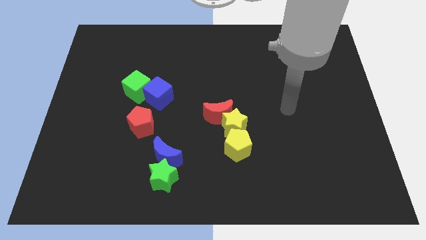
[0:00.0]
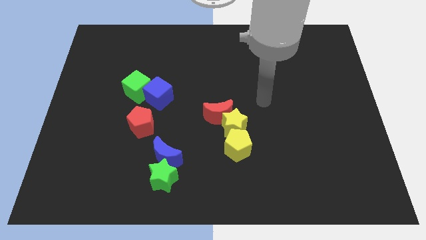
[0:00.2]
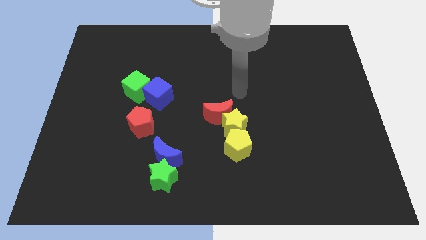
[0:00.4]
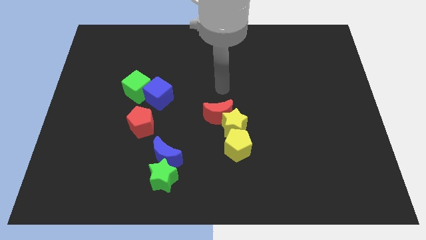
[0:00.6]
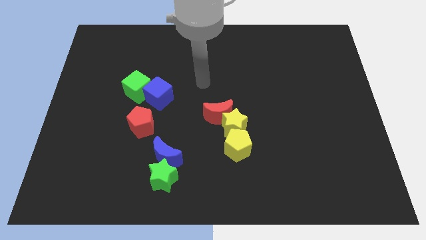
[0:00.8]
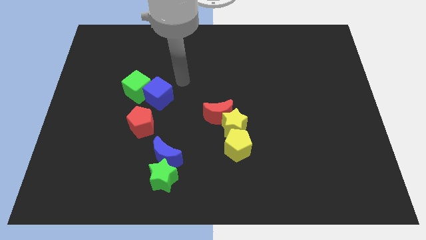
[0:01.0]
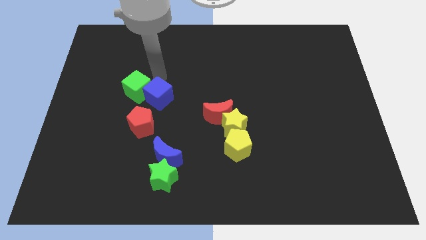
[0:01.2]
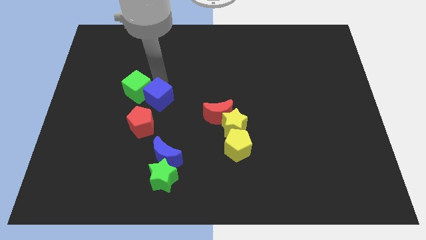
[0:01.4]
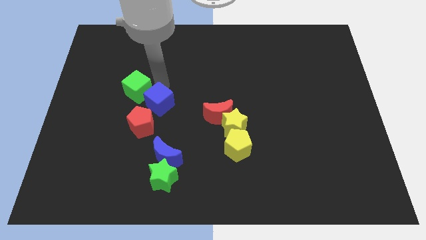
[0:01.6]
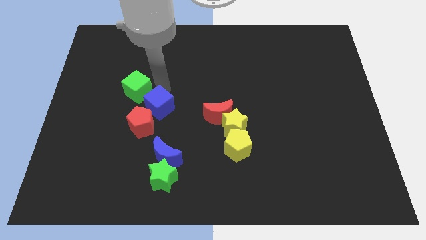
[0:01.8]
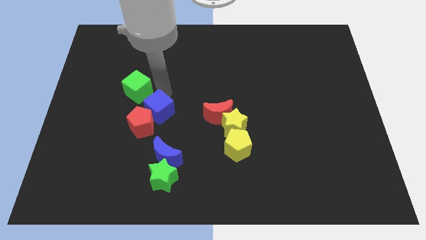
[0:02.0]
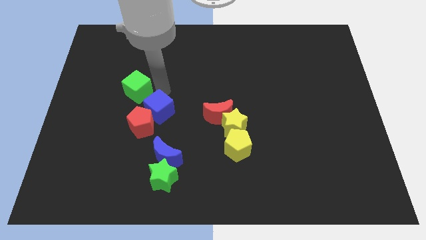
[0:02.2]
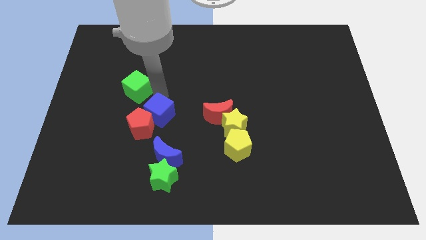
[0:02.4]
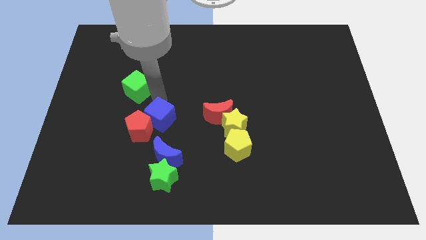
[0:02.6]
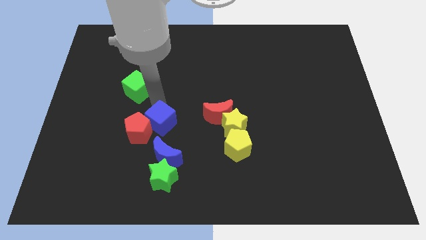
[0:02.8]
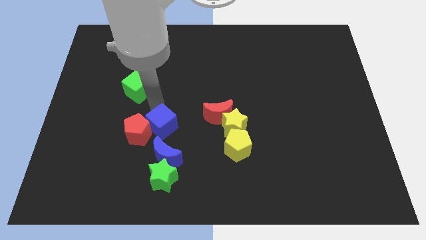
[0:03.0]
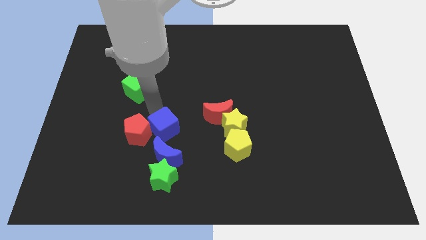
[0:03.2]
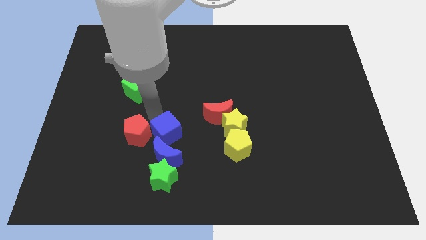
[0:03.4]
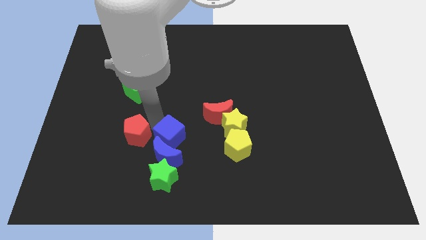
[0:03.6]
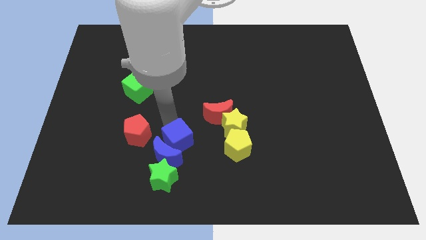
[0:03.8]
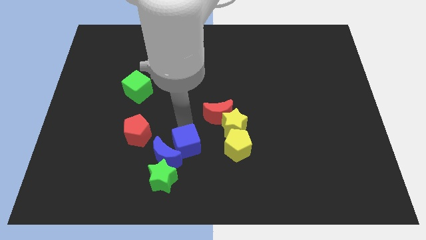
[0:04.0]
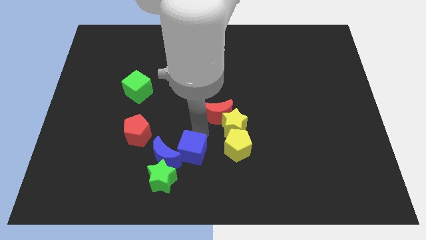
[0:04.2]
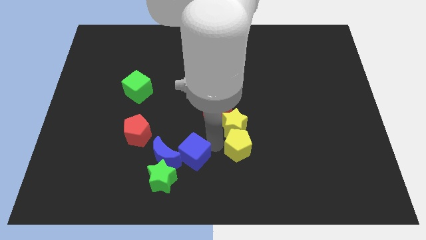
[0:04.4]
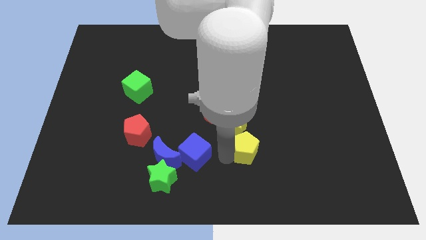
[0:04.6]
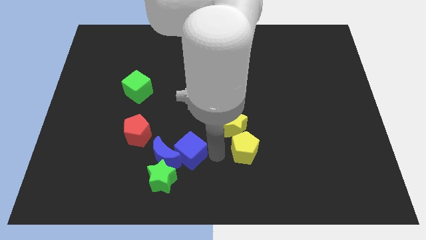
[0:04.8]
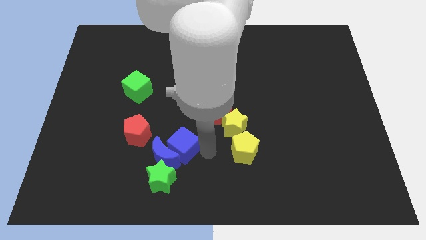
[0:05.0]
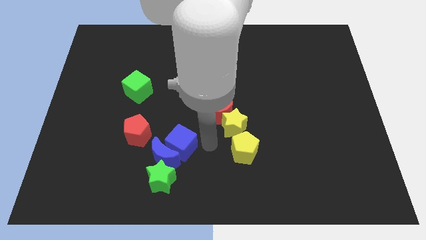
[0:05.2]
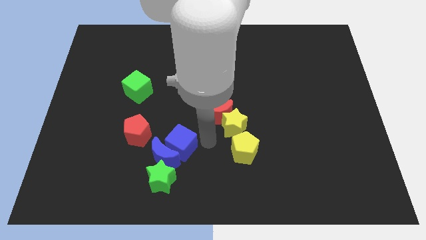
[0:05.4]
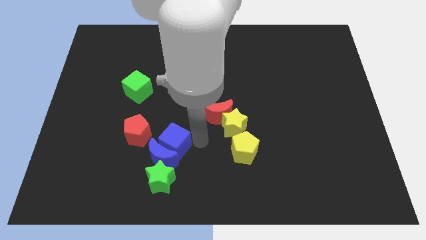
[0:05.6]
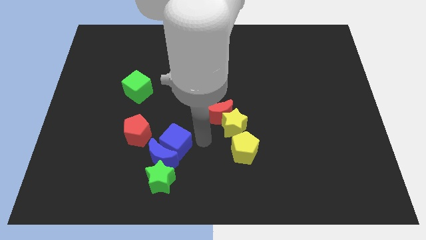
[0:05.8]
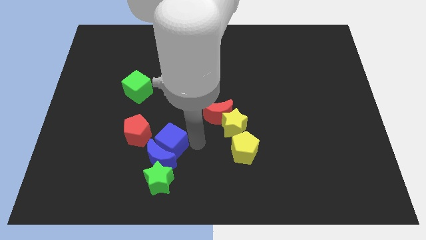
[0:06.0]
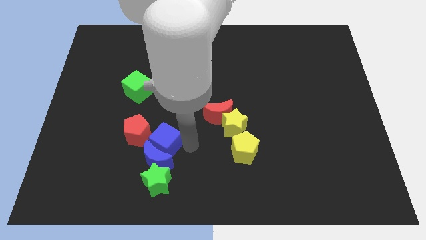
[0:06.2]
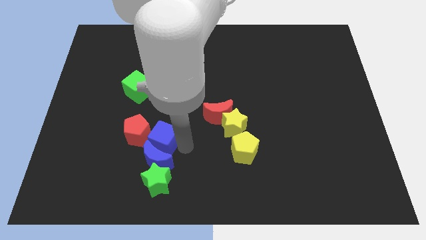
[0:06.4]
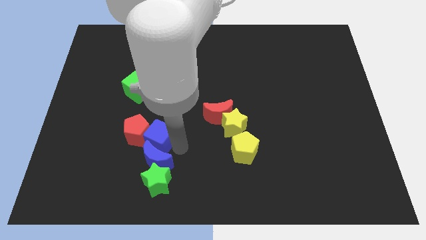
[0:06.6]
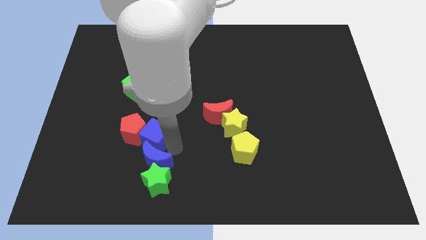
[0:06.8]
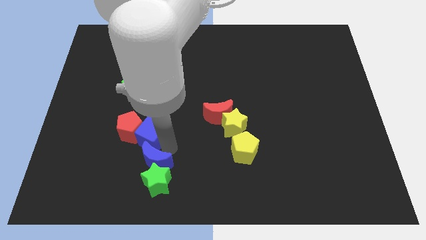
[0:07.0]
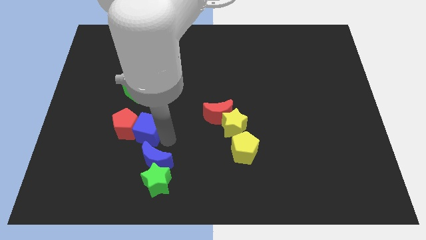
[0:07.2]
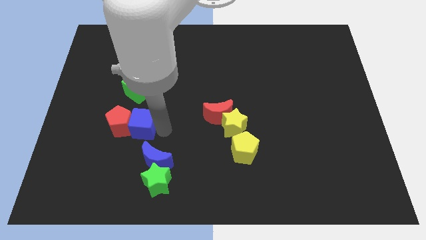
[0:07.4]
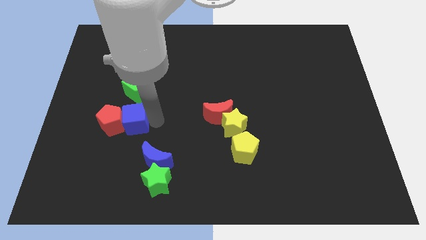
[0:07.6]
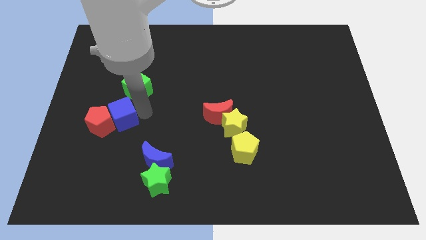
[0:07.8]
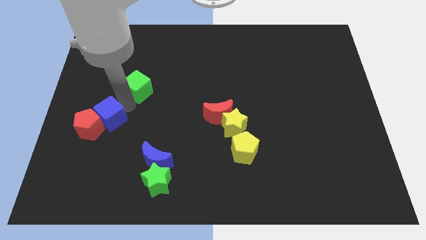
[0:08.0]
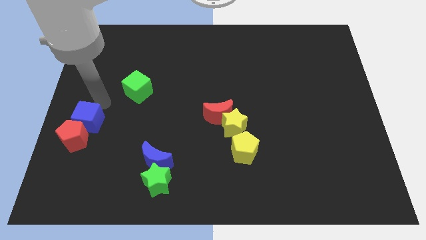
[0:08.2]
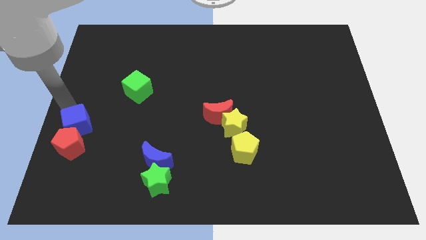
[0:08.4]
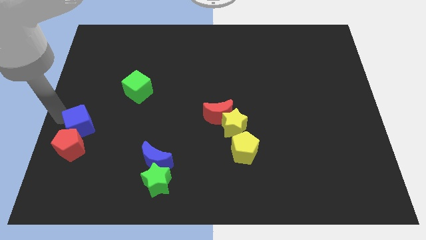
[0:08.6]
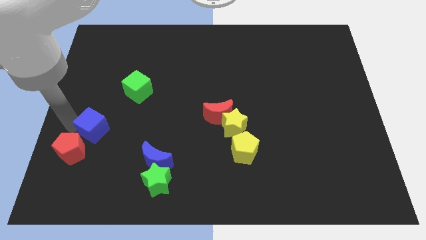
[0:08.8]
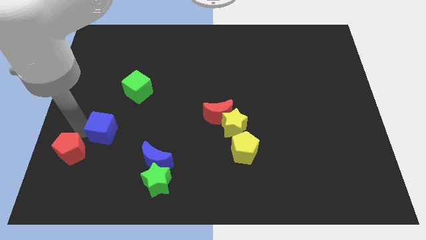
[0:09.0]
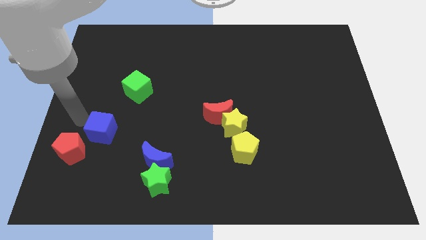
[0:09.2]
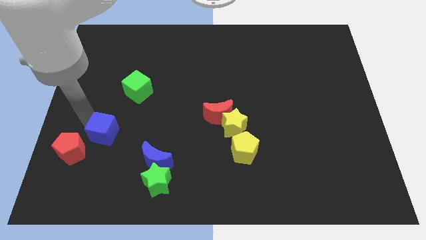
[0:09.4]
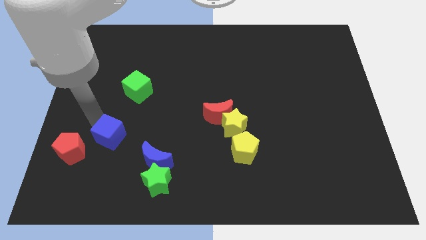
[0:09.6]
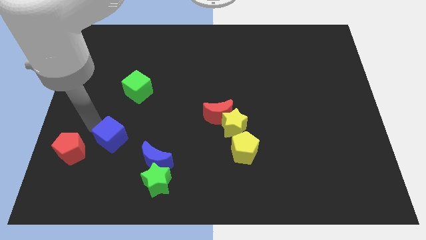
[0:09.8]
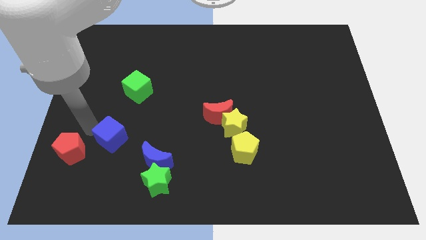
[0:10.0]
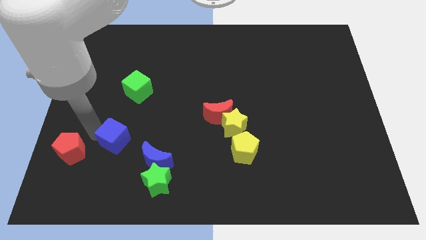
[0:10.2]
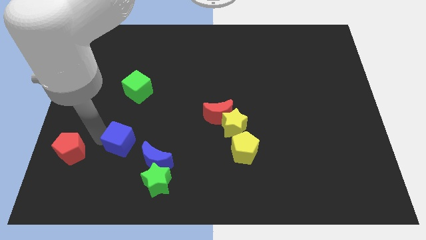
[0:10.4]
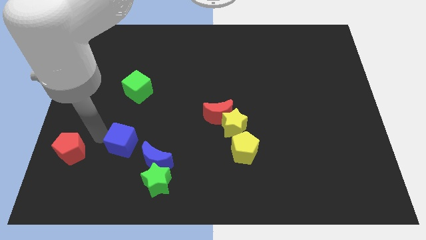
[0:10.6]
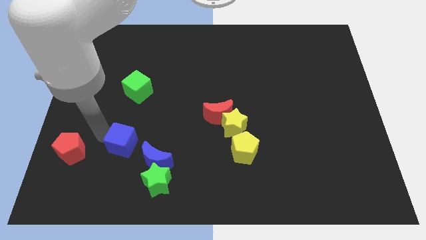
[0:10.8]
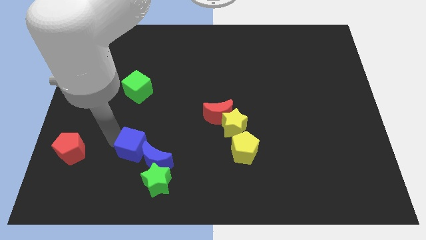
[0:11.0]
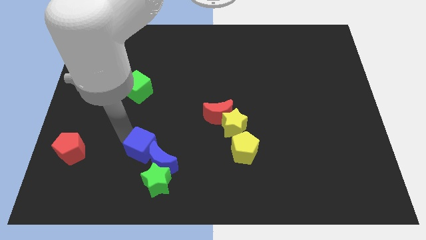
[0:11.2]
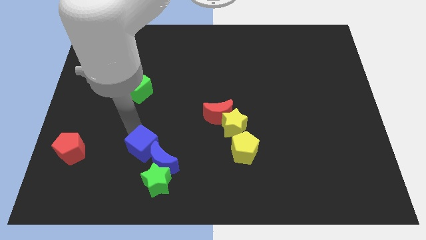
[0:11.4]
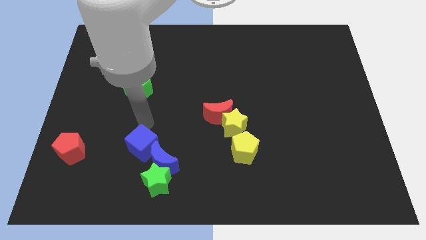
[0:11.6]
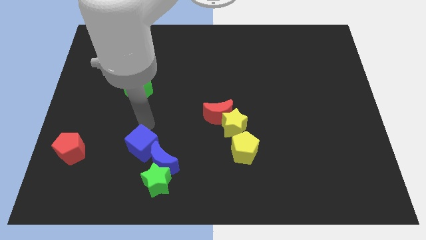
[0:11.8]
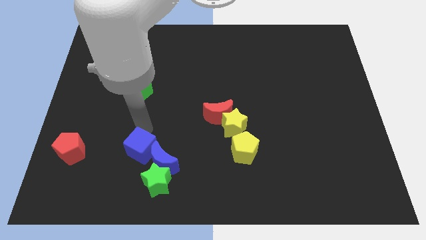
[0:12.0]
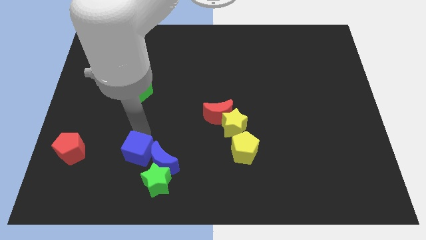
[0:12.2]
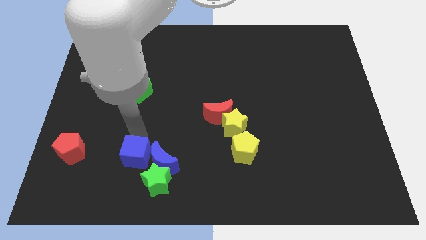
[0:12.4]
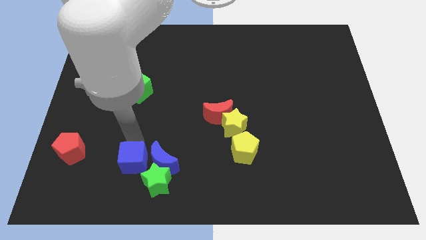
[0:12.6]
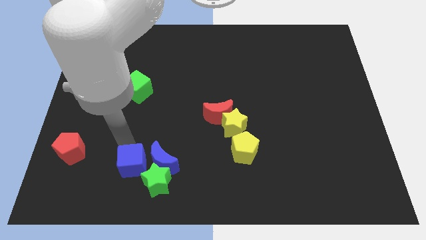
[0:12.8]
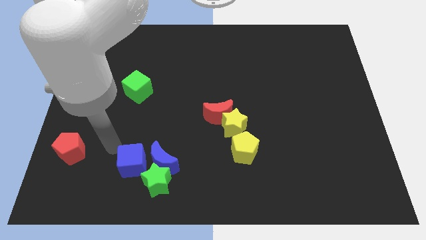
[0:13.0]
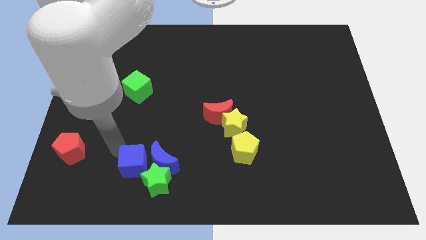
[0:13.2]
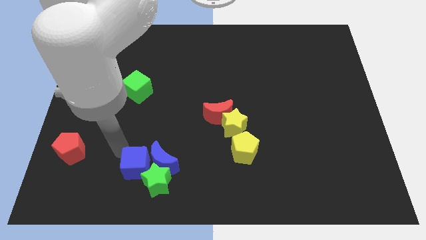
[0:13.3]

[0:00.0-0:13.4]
slide the blue cube close to the green star

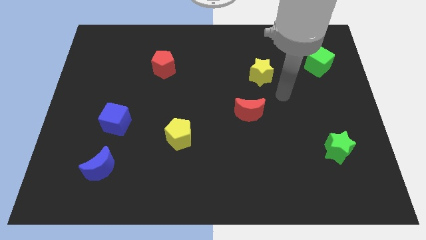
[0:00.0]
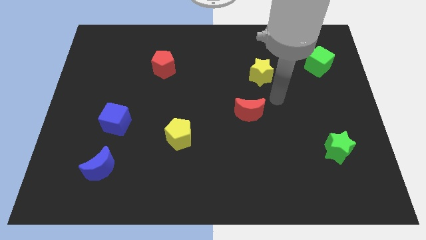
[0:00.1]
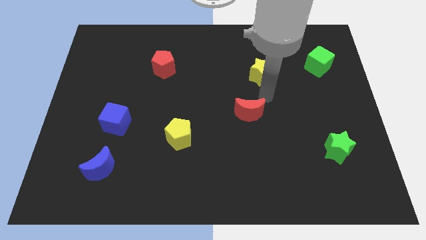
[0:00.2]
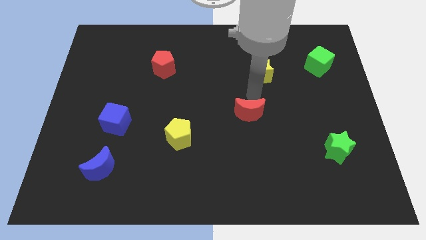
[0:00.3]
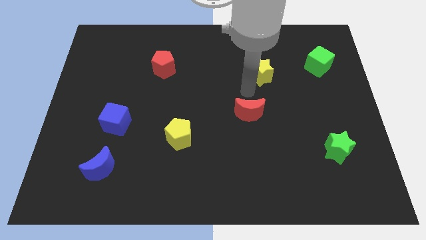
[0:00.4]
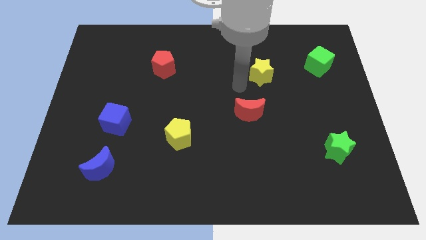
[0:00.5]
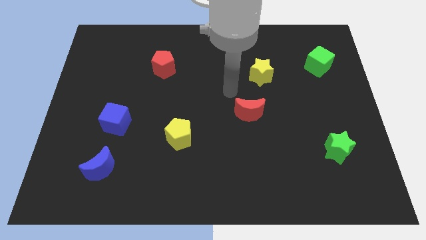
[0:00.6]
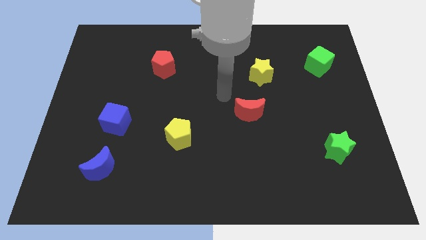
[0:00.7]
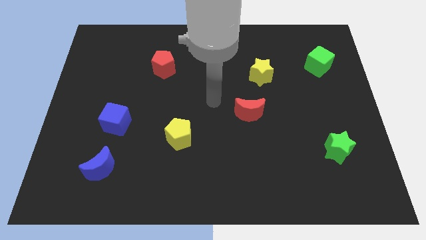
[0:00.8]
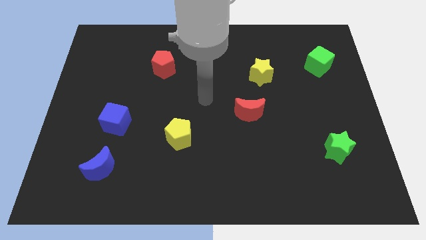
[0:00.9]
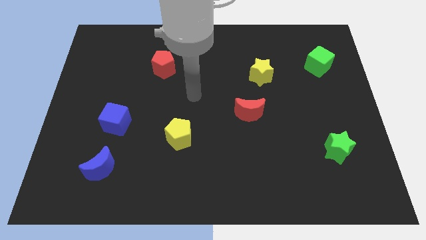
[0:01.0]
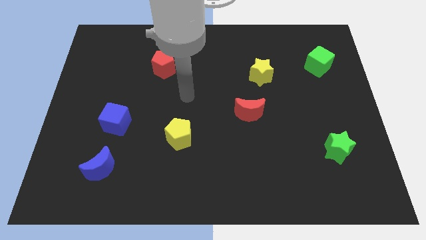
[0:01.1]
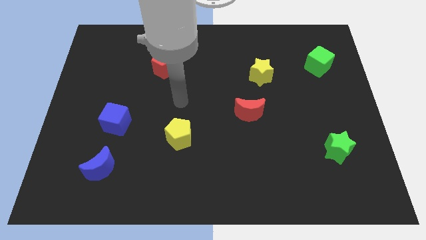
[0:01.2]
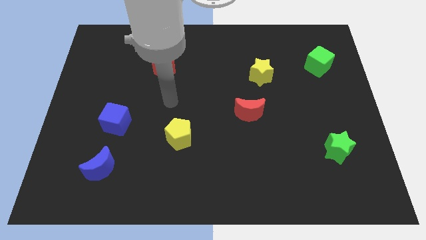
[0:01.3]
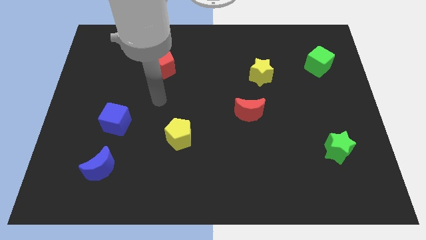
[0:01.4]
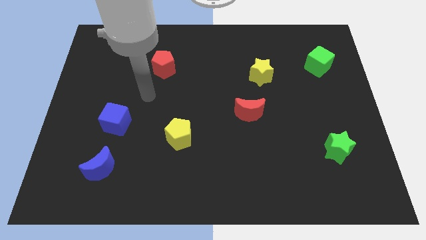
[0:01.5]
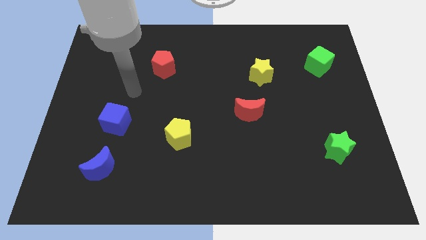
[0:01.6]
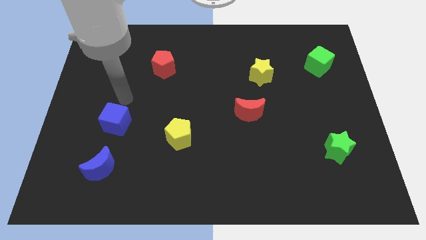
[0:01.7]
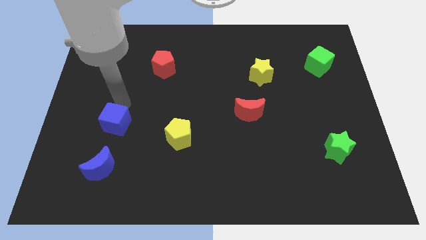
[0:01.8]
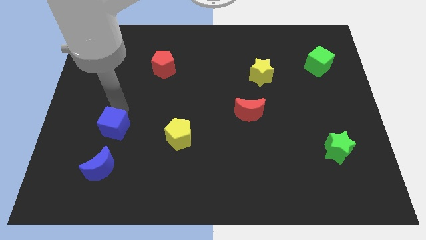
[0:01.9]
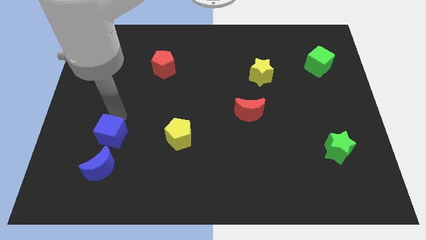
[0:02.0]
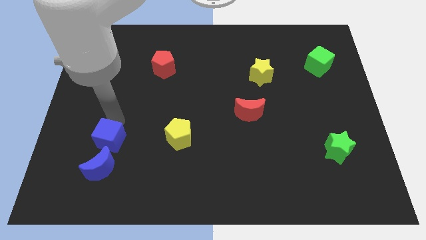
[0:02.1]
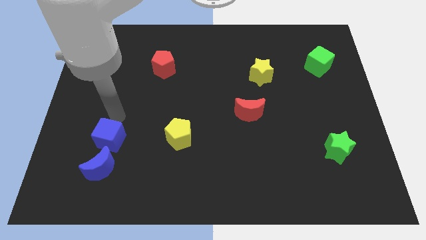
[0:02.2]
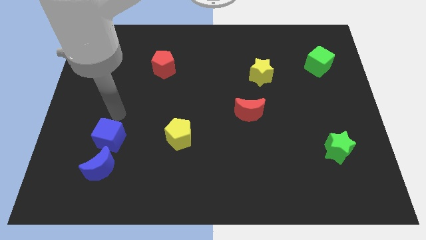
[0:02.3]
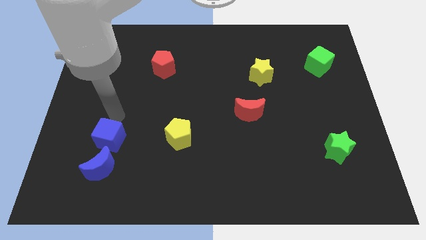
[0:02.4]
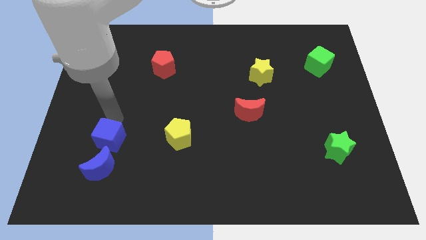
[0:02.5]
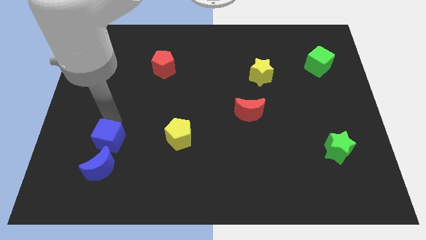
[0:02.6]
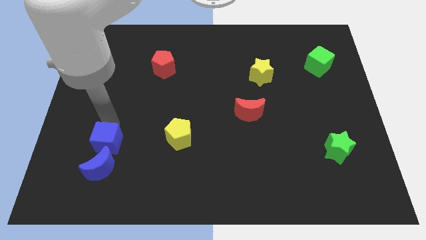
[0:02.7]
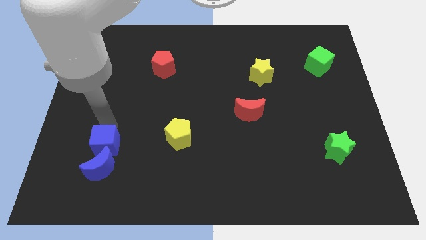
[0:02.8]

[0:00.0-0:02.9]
push the blue cube next to the blue moon
